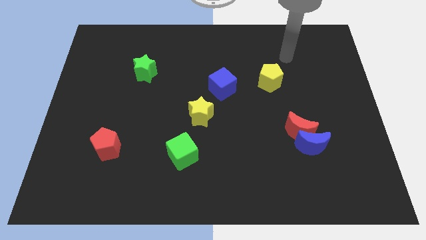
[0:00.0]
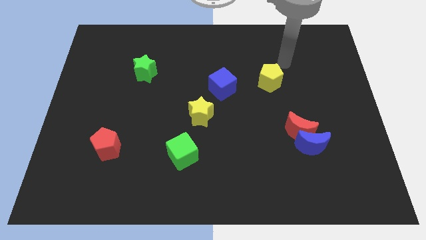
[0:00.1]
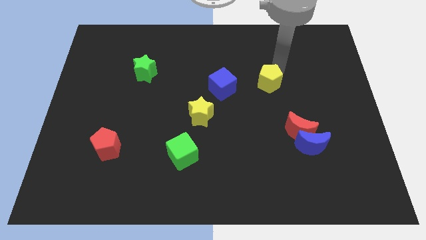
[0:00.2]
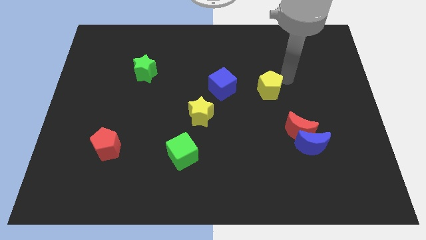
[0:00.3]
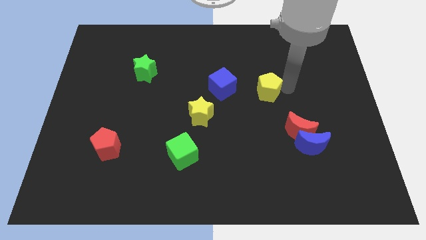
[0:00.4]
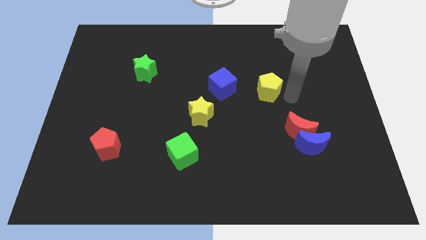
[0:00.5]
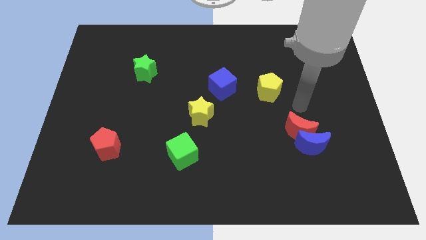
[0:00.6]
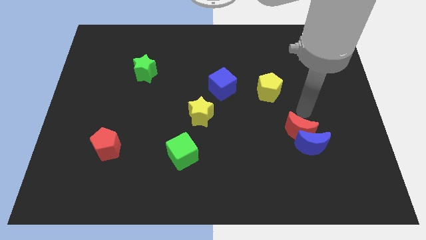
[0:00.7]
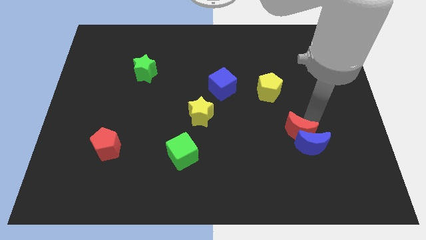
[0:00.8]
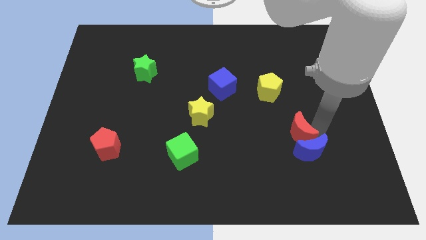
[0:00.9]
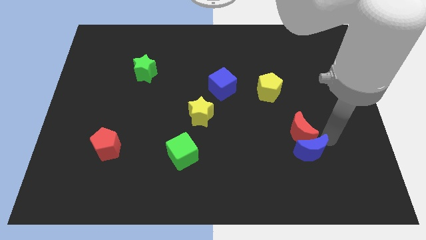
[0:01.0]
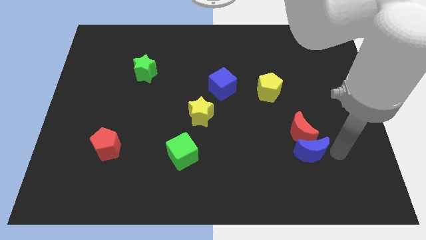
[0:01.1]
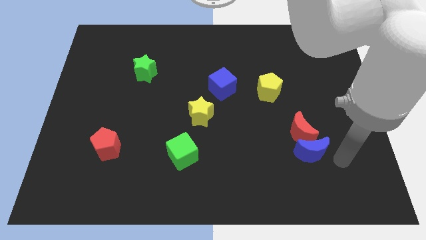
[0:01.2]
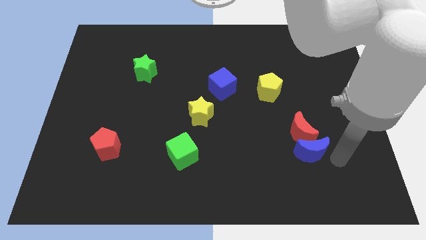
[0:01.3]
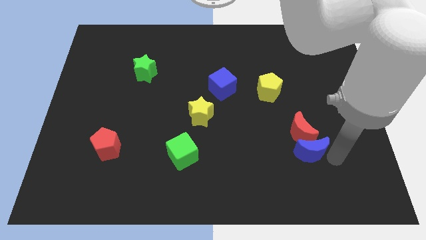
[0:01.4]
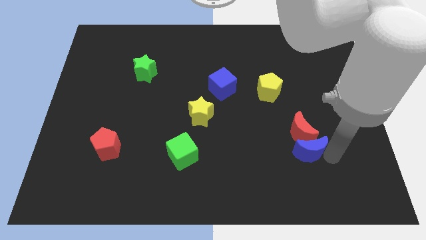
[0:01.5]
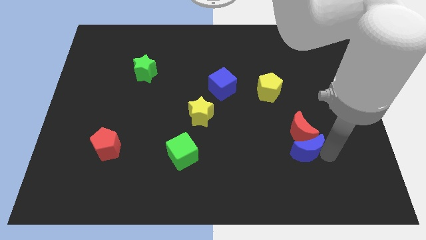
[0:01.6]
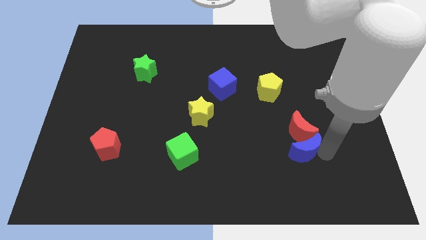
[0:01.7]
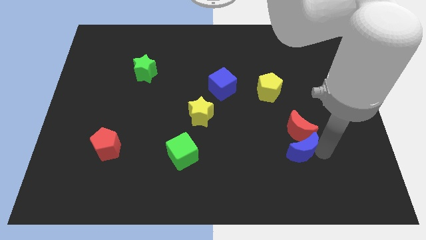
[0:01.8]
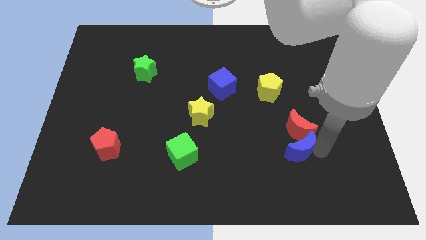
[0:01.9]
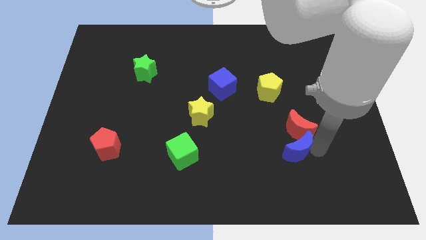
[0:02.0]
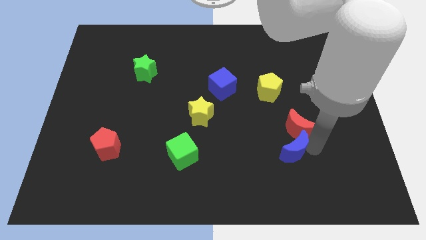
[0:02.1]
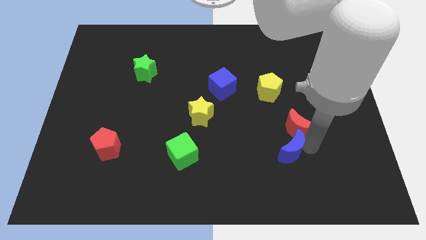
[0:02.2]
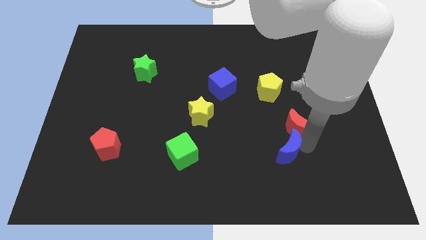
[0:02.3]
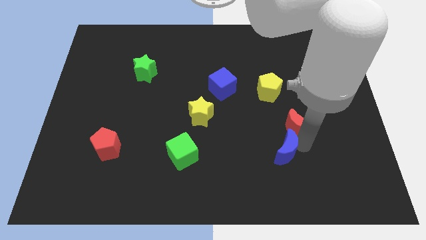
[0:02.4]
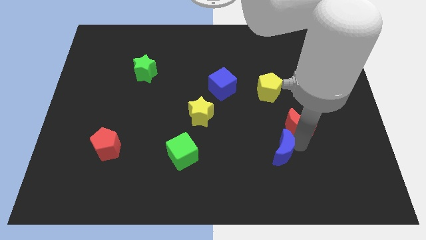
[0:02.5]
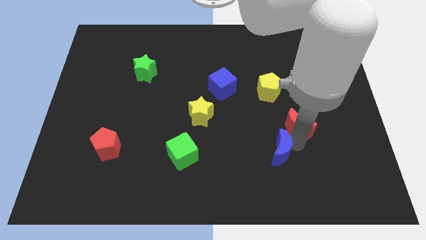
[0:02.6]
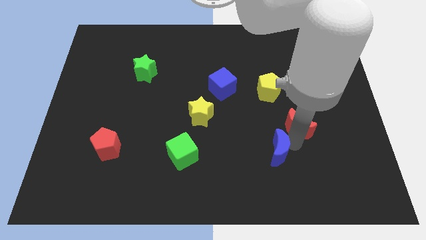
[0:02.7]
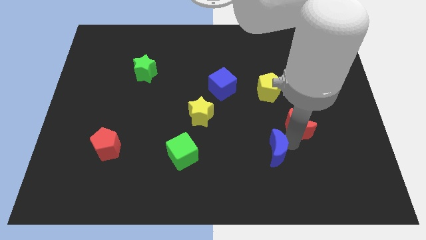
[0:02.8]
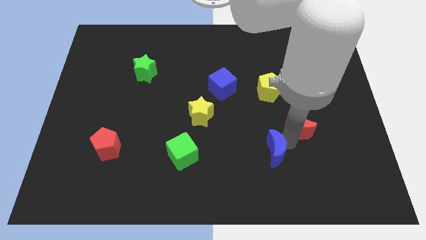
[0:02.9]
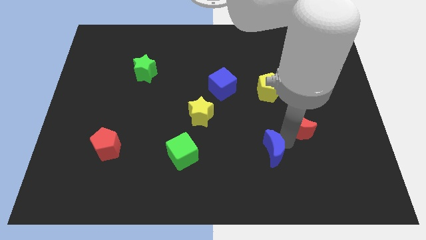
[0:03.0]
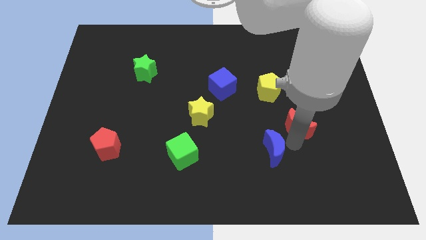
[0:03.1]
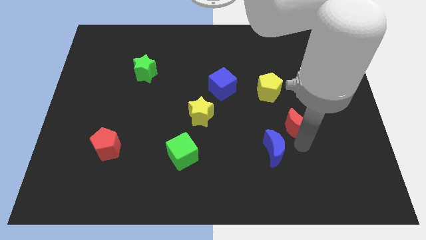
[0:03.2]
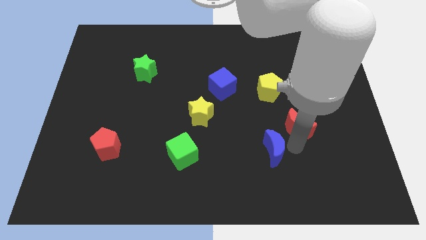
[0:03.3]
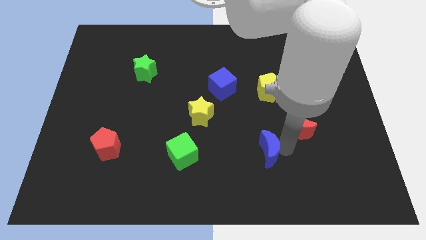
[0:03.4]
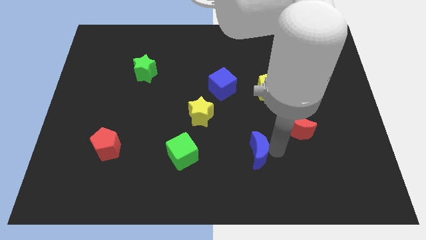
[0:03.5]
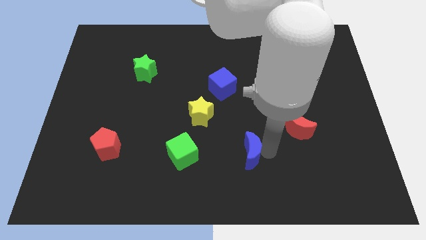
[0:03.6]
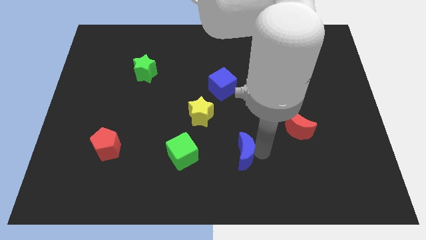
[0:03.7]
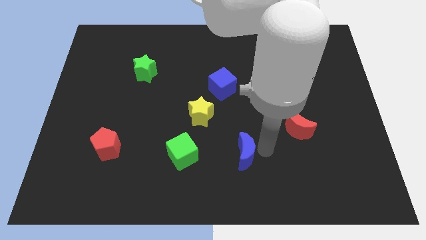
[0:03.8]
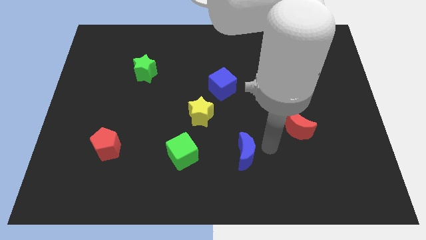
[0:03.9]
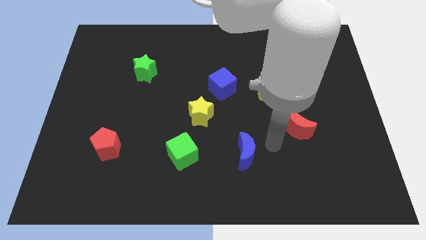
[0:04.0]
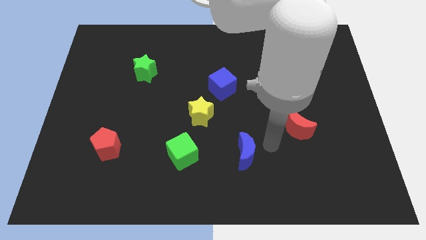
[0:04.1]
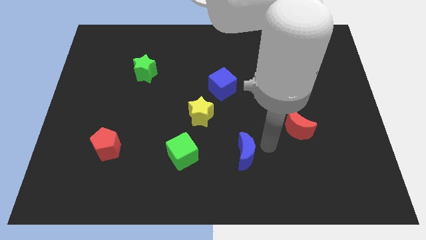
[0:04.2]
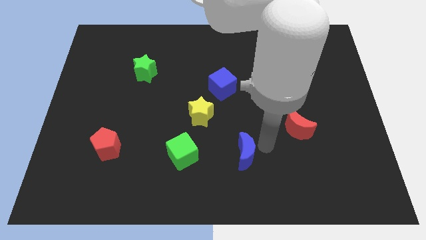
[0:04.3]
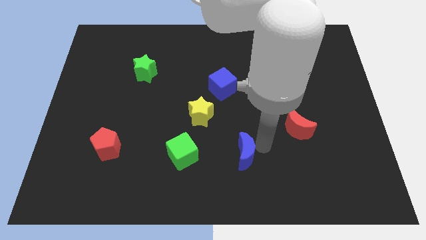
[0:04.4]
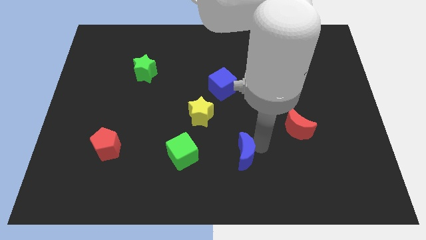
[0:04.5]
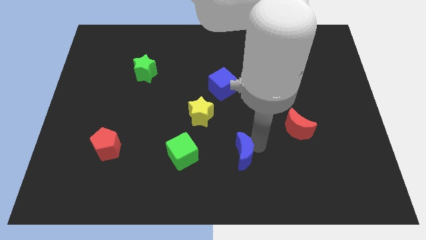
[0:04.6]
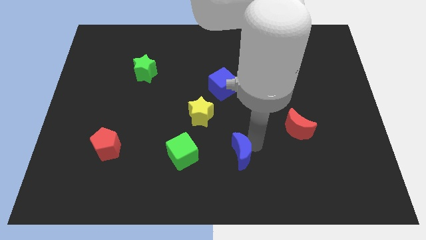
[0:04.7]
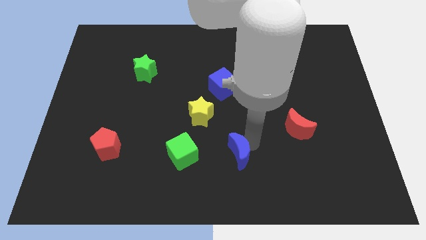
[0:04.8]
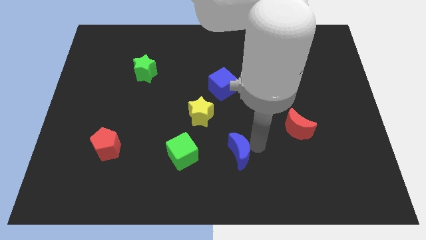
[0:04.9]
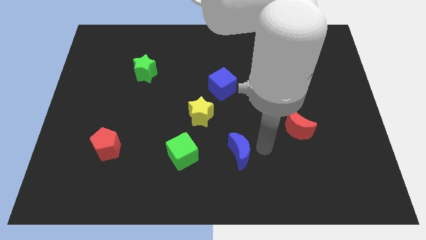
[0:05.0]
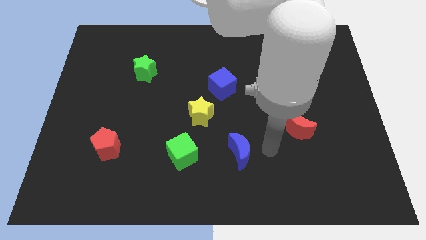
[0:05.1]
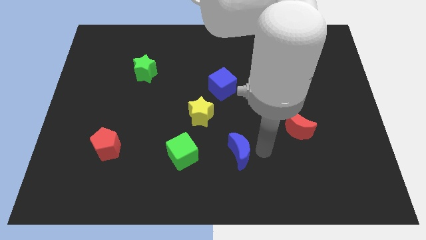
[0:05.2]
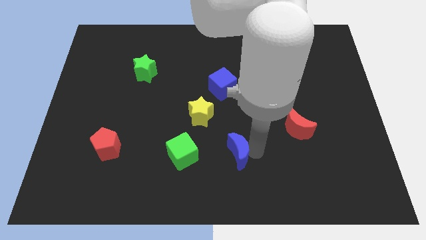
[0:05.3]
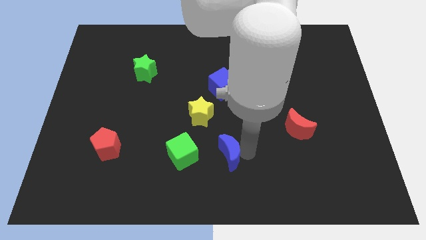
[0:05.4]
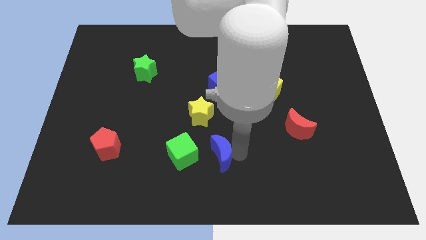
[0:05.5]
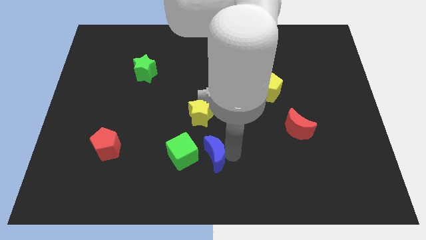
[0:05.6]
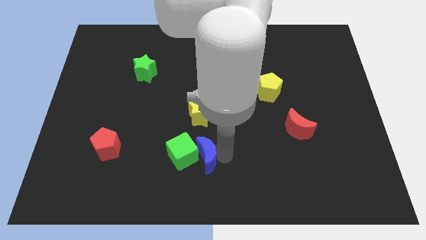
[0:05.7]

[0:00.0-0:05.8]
put the blue moon to the green cube

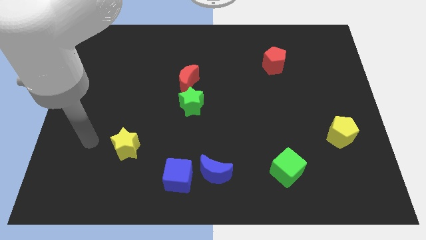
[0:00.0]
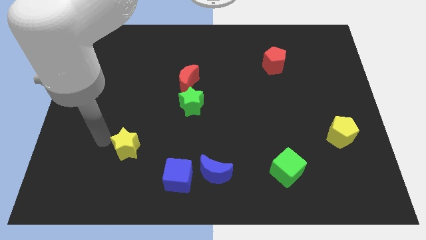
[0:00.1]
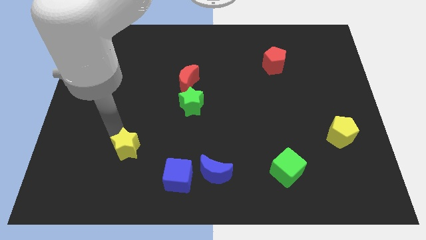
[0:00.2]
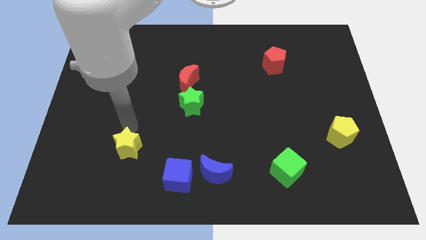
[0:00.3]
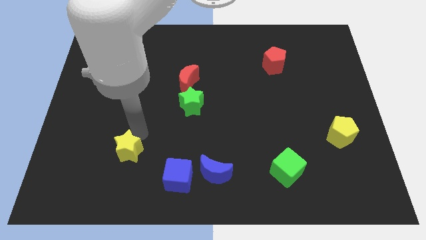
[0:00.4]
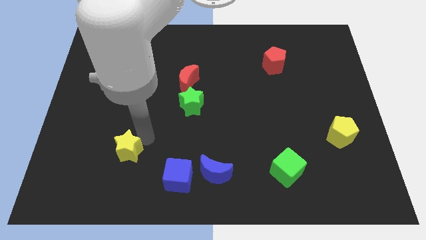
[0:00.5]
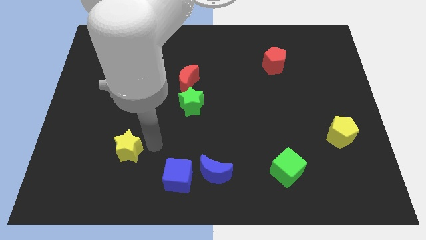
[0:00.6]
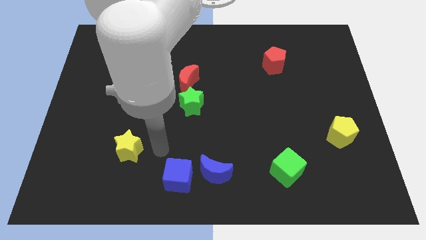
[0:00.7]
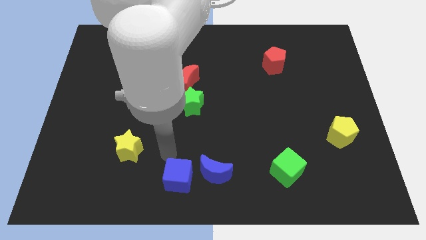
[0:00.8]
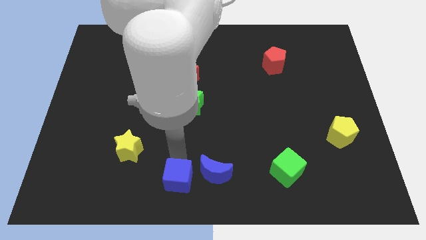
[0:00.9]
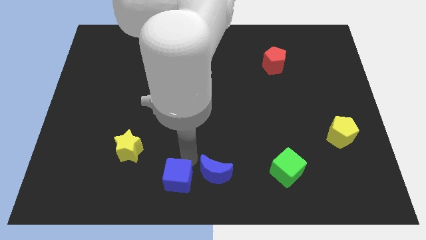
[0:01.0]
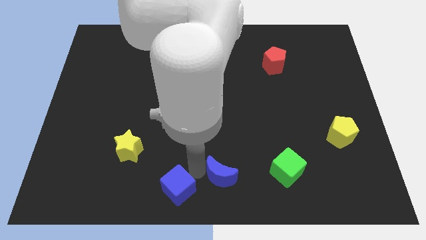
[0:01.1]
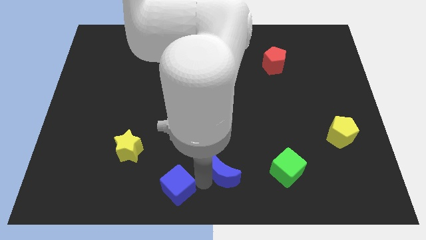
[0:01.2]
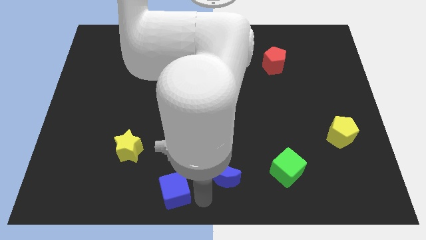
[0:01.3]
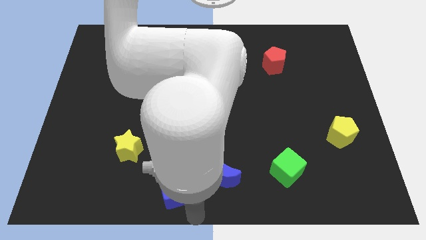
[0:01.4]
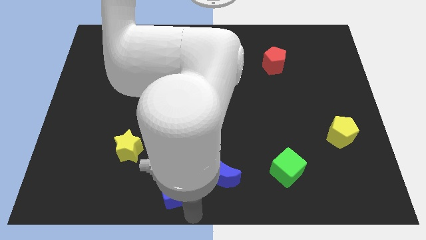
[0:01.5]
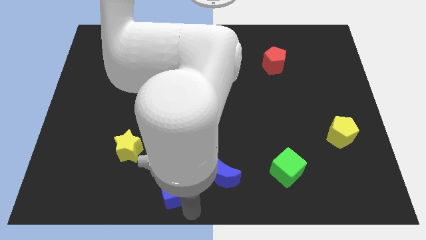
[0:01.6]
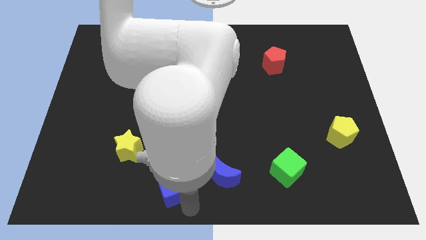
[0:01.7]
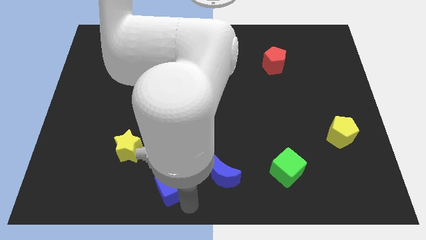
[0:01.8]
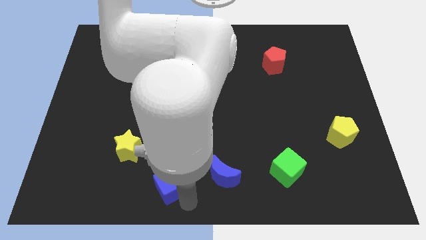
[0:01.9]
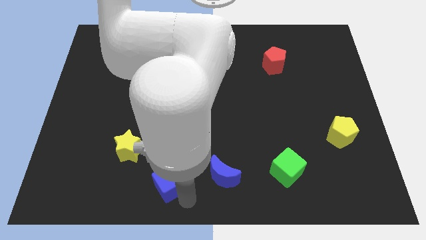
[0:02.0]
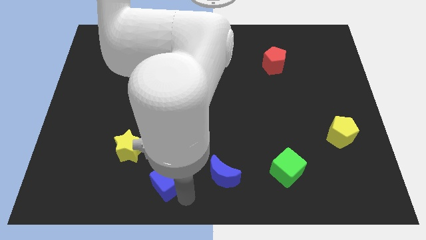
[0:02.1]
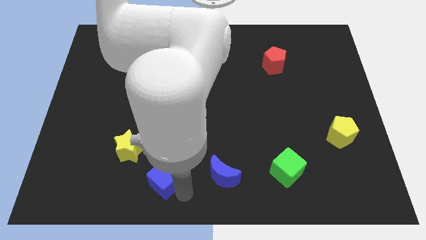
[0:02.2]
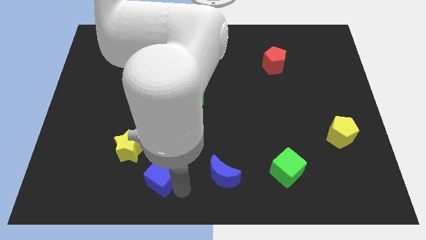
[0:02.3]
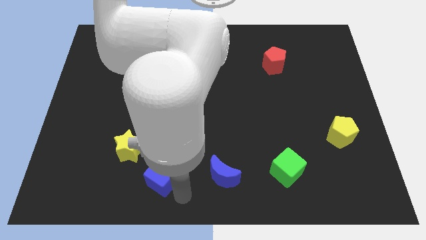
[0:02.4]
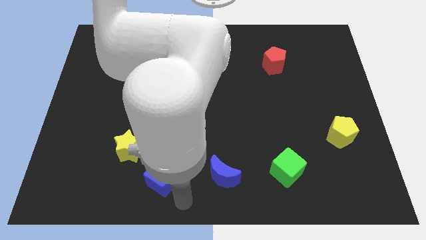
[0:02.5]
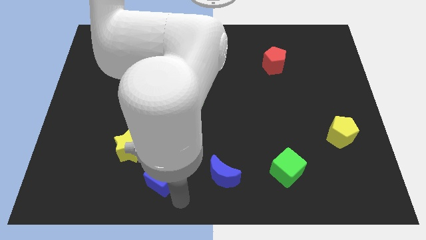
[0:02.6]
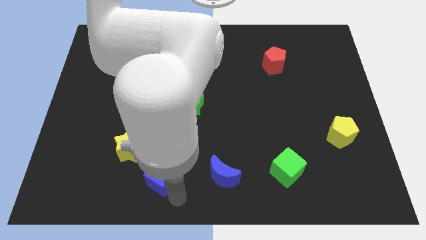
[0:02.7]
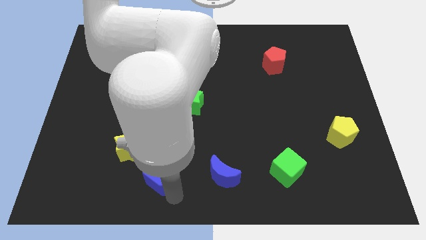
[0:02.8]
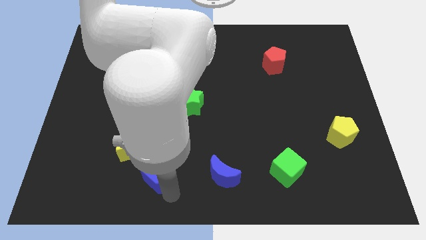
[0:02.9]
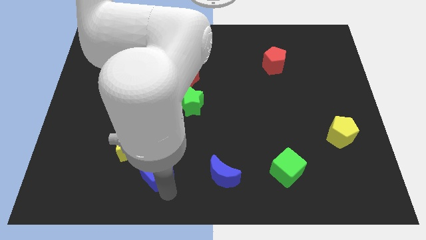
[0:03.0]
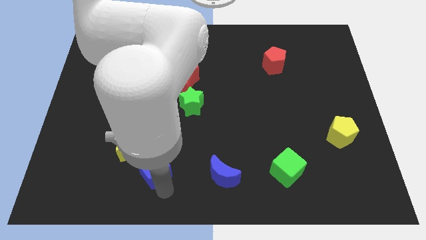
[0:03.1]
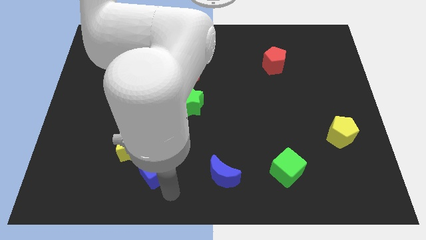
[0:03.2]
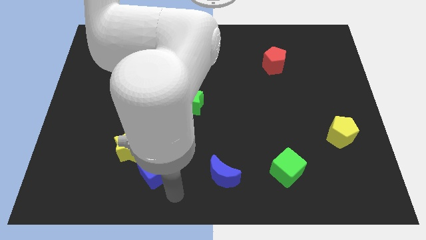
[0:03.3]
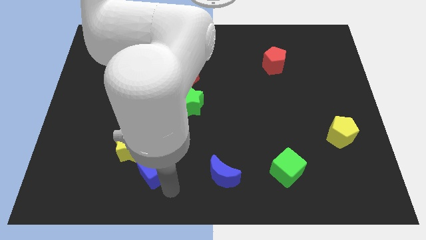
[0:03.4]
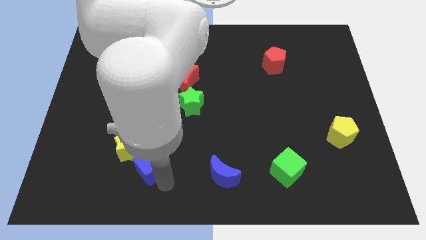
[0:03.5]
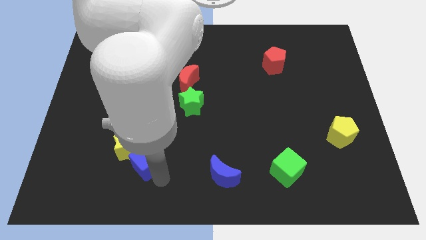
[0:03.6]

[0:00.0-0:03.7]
slide the blue cube close to the yellow star
